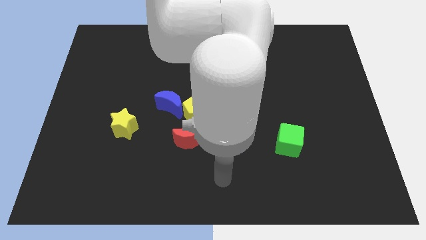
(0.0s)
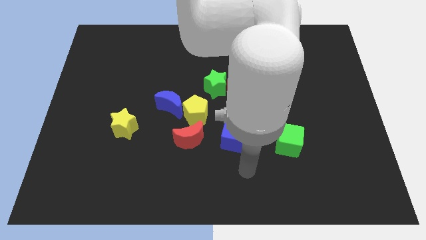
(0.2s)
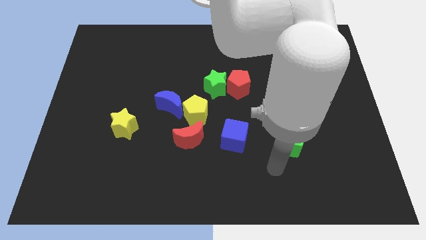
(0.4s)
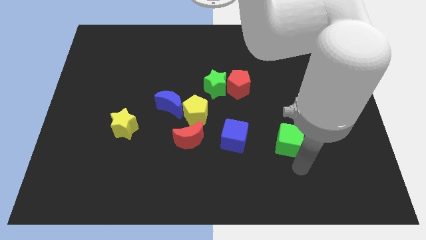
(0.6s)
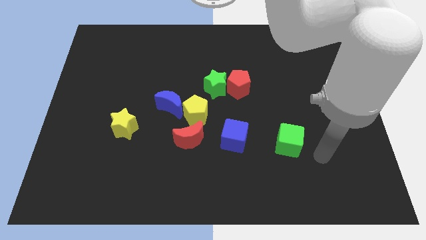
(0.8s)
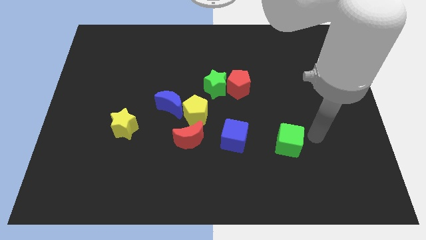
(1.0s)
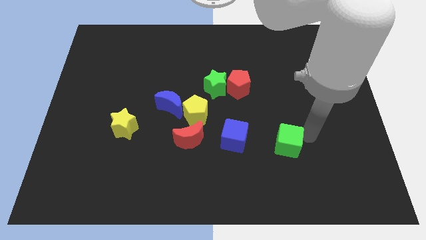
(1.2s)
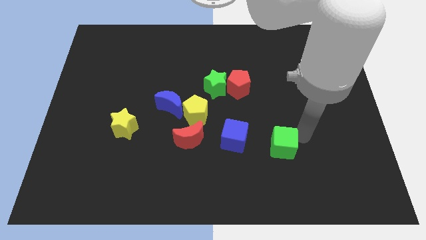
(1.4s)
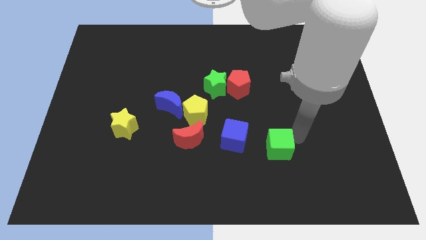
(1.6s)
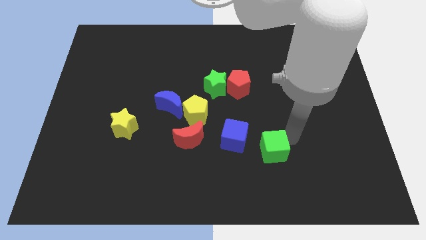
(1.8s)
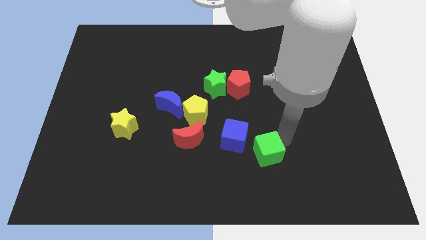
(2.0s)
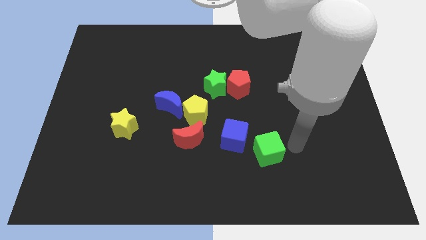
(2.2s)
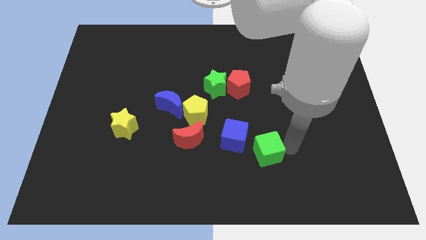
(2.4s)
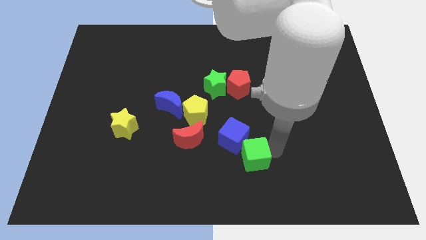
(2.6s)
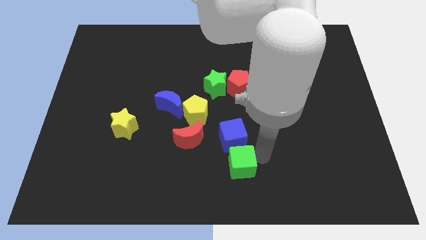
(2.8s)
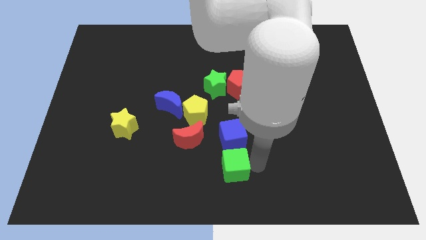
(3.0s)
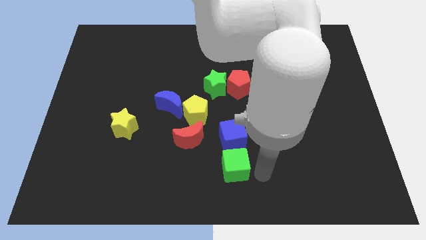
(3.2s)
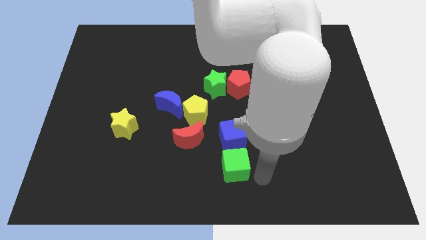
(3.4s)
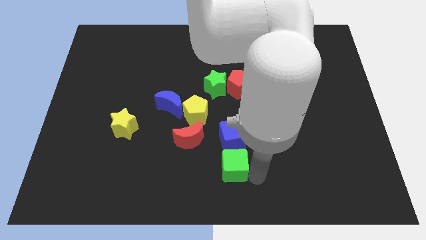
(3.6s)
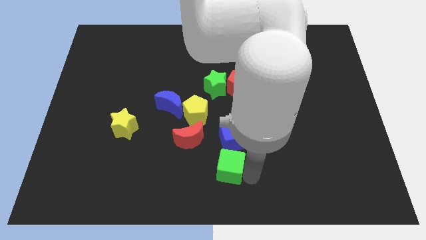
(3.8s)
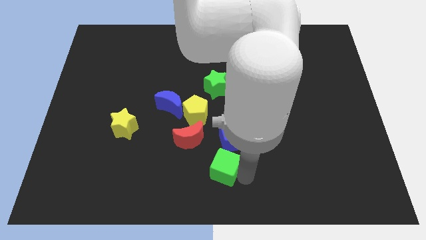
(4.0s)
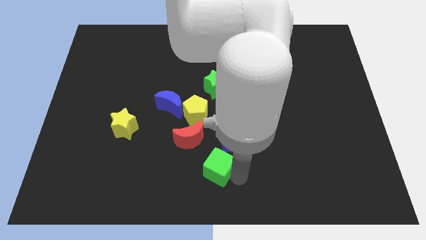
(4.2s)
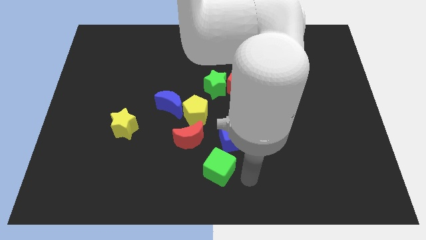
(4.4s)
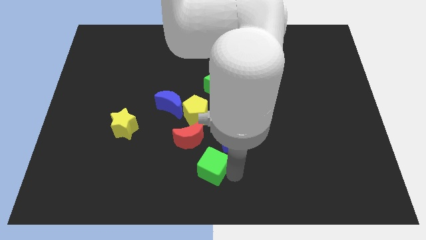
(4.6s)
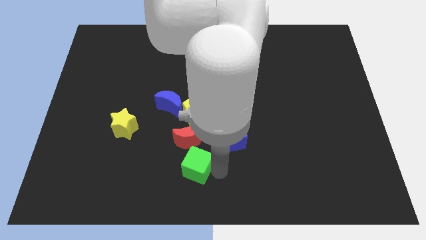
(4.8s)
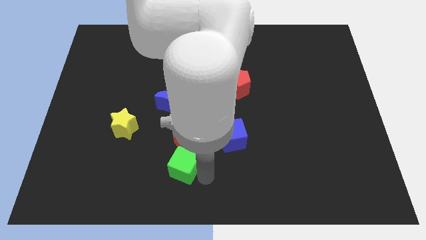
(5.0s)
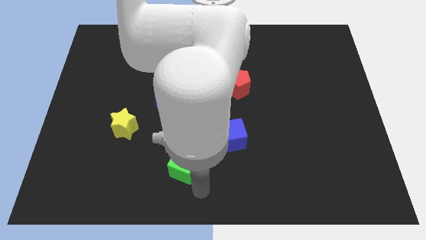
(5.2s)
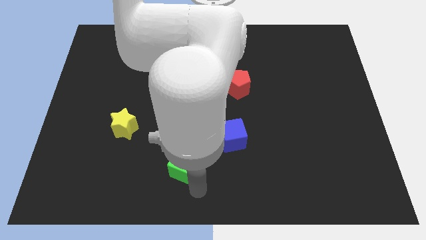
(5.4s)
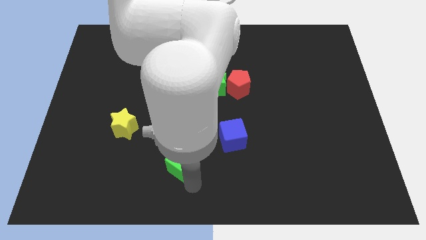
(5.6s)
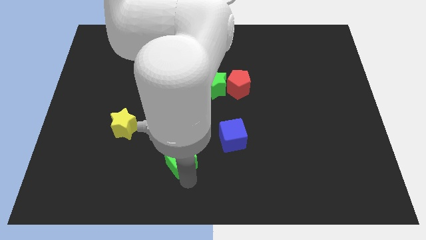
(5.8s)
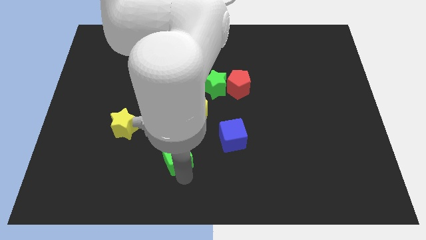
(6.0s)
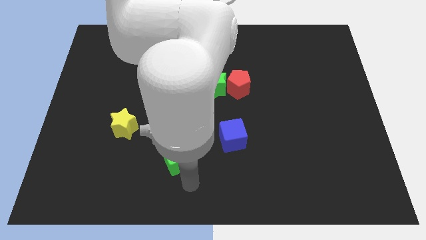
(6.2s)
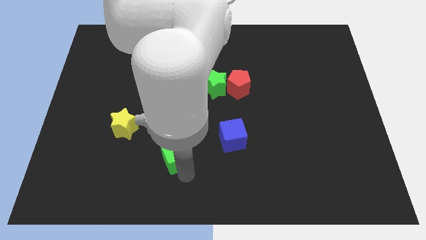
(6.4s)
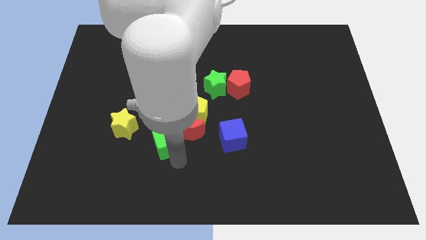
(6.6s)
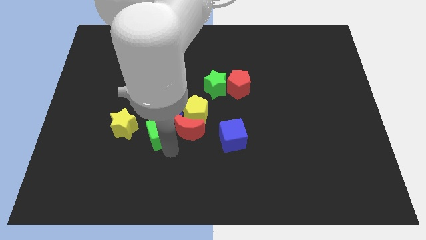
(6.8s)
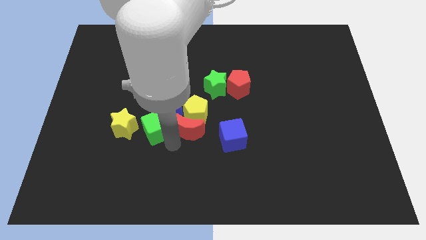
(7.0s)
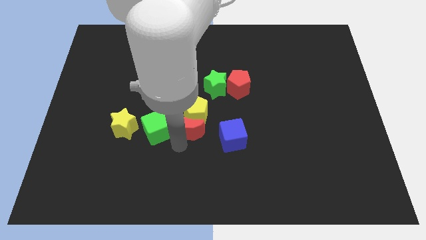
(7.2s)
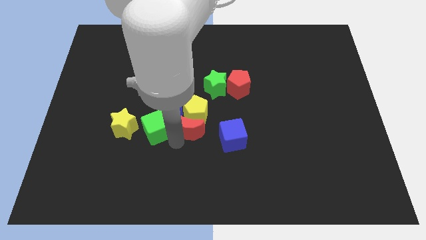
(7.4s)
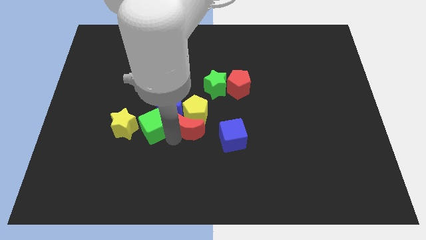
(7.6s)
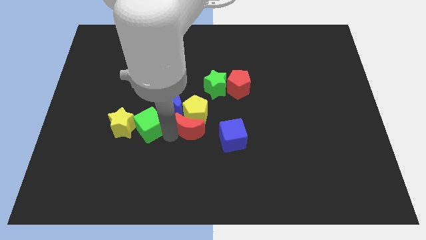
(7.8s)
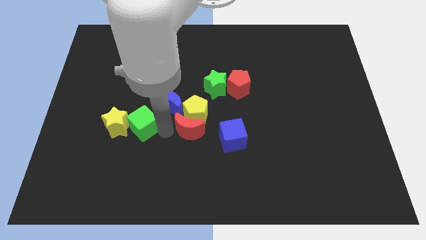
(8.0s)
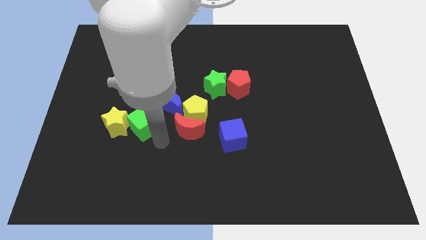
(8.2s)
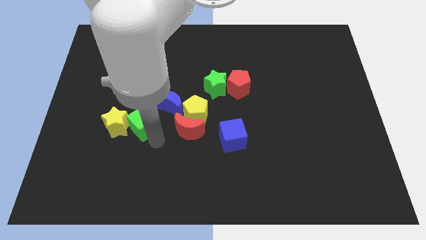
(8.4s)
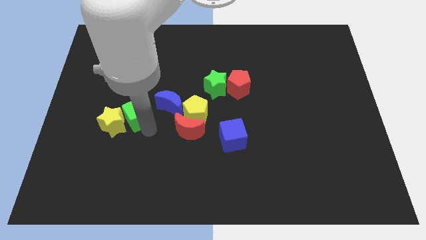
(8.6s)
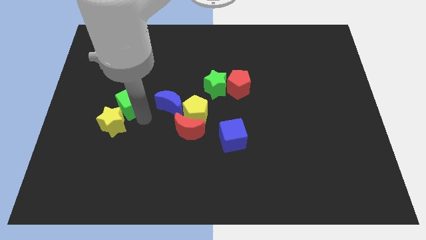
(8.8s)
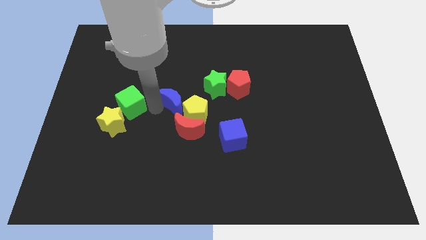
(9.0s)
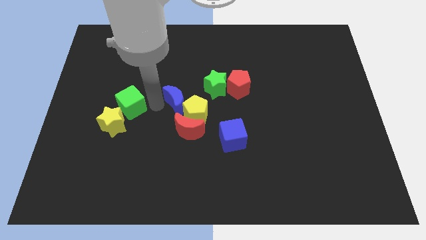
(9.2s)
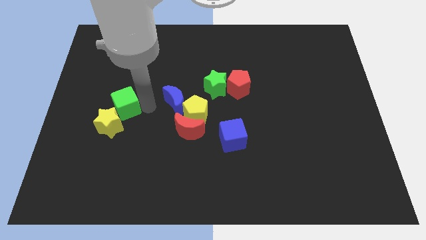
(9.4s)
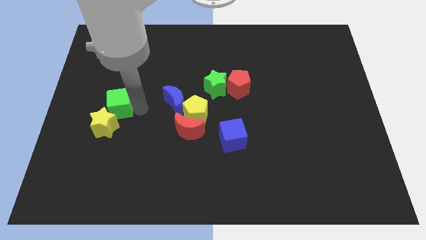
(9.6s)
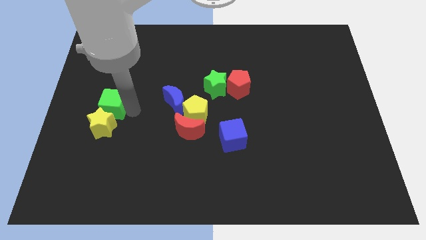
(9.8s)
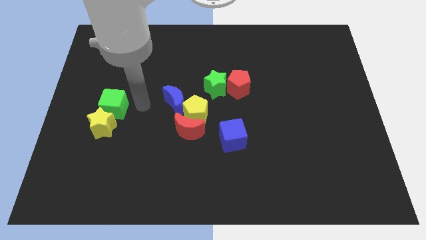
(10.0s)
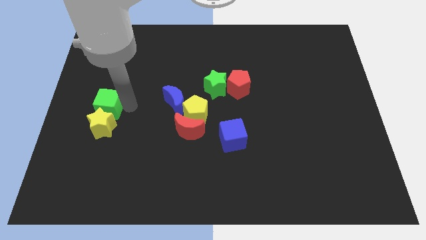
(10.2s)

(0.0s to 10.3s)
slide the green cube diagonally up and to the left of the yellow star

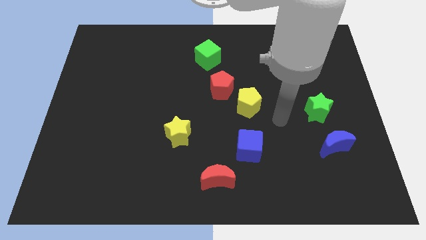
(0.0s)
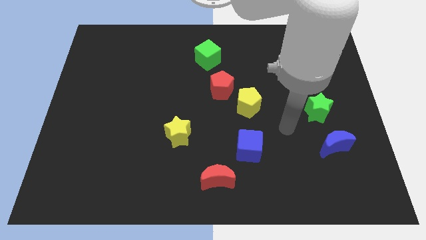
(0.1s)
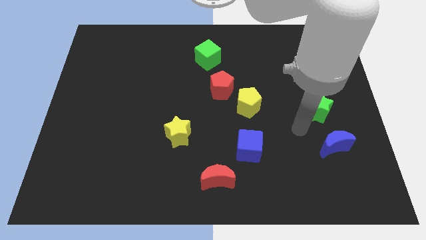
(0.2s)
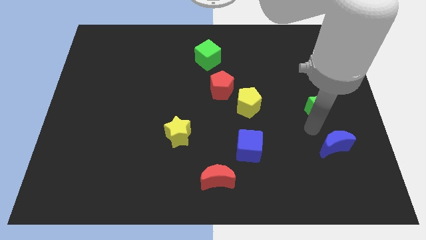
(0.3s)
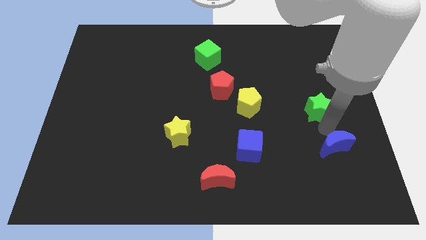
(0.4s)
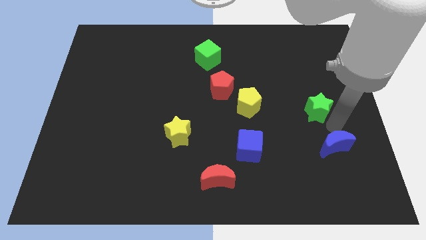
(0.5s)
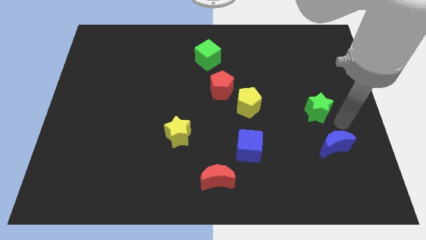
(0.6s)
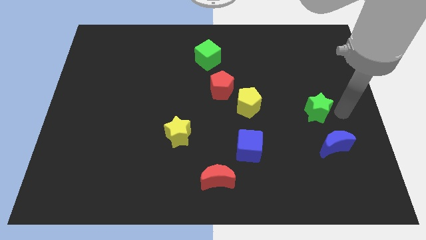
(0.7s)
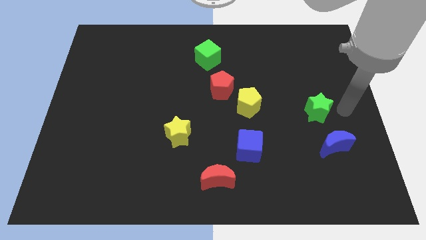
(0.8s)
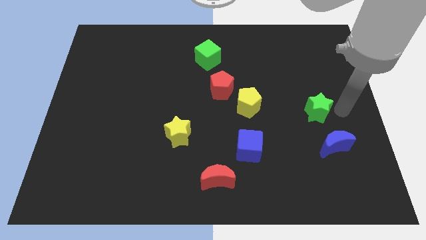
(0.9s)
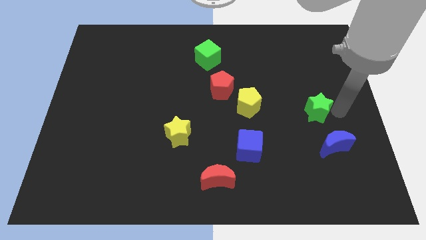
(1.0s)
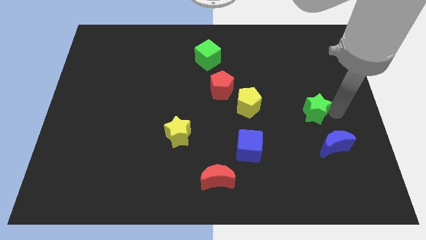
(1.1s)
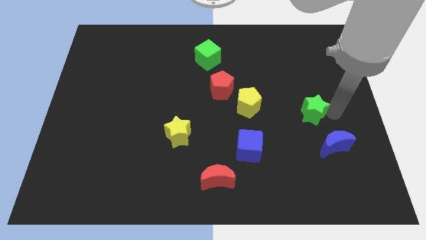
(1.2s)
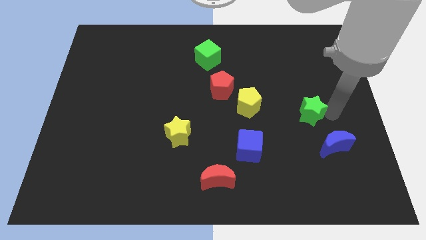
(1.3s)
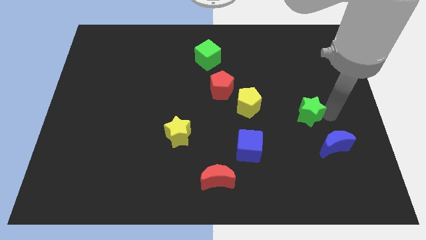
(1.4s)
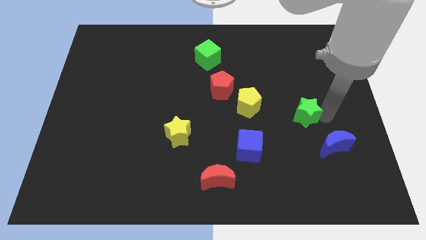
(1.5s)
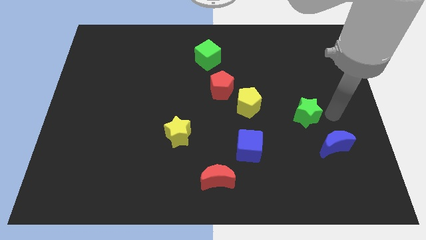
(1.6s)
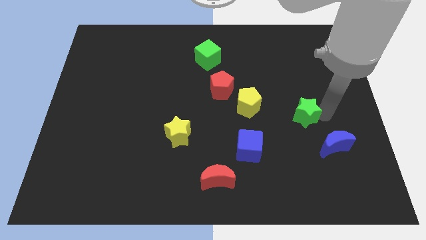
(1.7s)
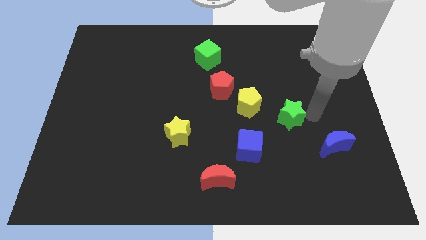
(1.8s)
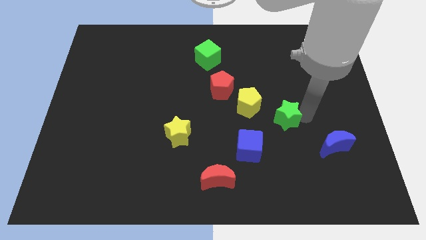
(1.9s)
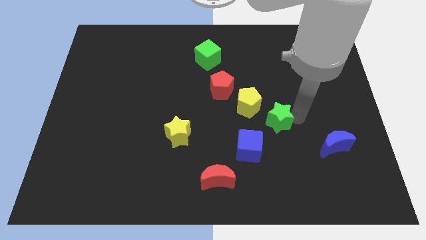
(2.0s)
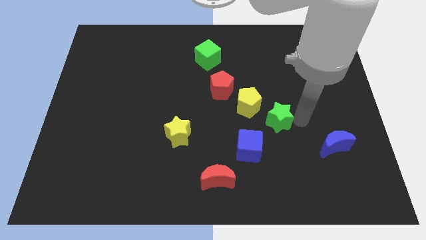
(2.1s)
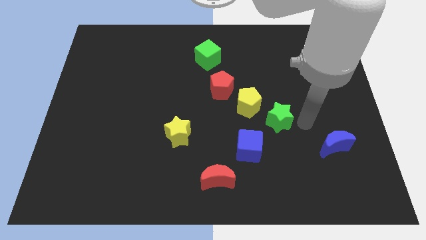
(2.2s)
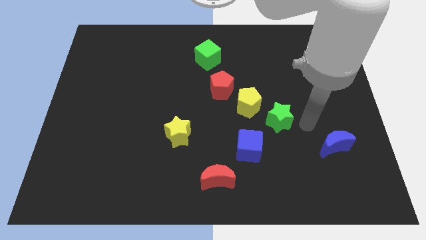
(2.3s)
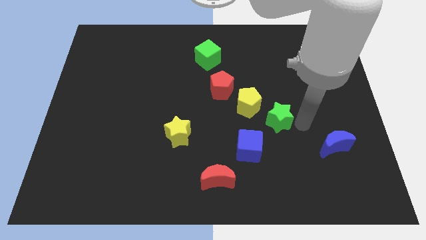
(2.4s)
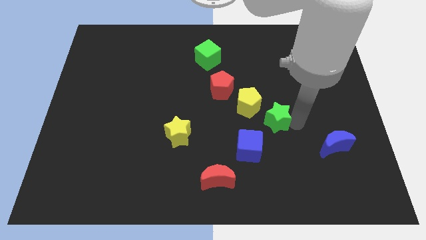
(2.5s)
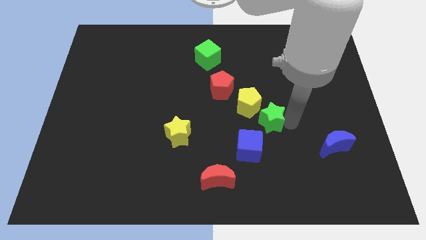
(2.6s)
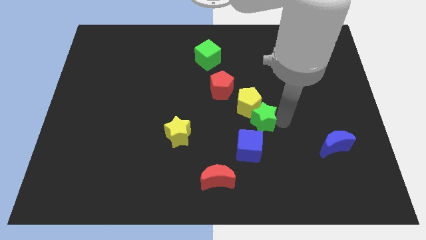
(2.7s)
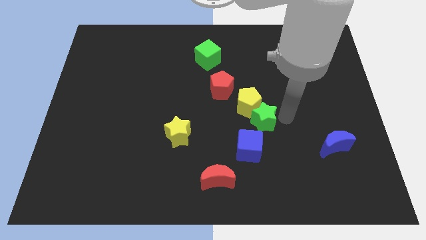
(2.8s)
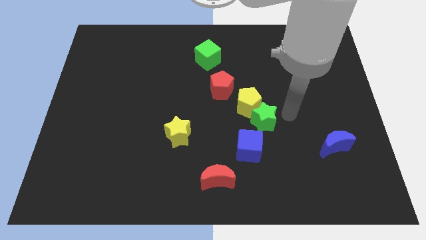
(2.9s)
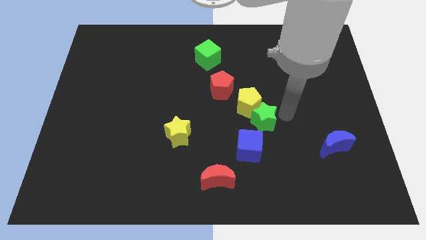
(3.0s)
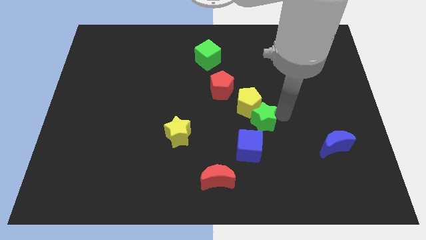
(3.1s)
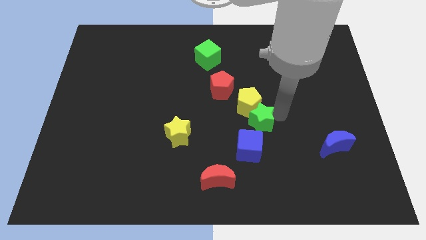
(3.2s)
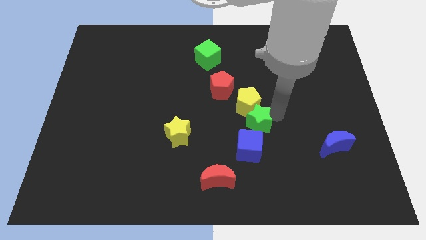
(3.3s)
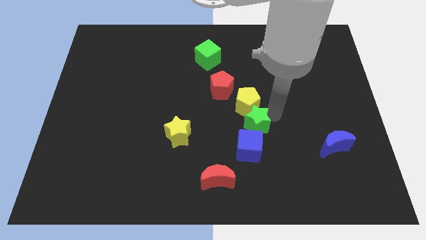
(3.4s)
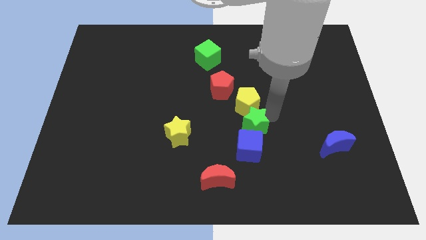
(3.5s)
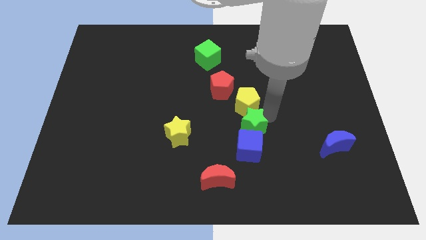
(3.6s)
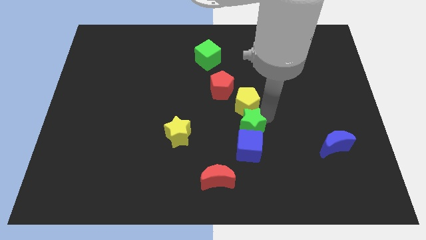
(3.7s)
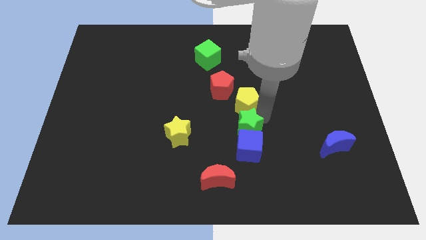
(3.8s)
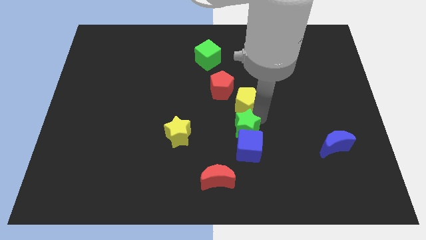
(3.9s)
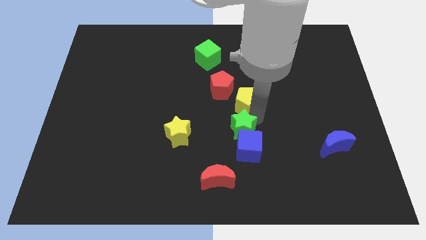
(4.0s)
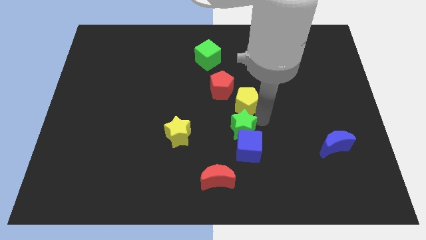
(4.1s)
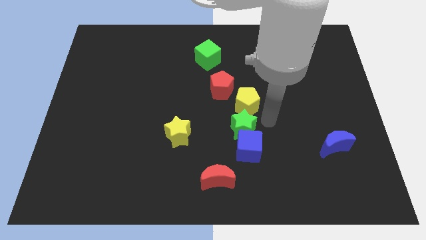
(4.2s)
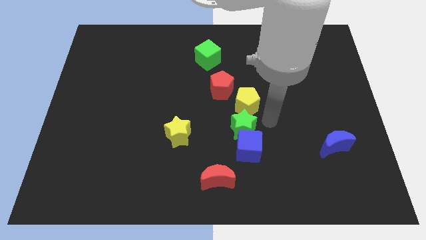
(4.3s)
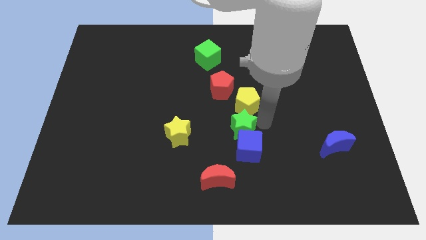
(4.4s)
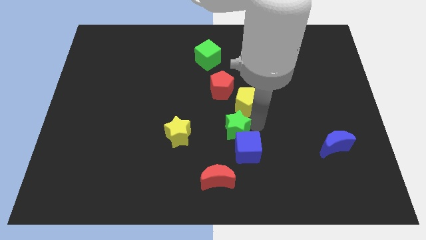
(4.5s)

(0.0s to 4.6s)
push the green star above the red moon
